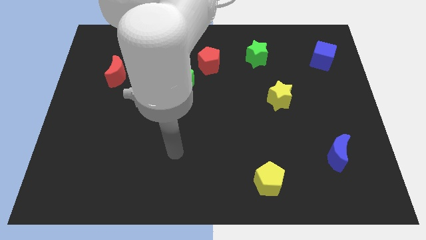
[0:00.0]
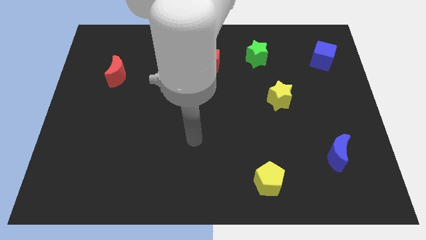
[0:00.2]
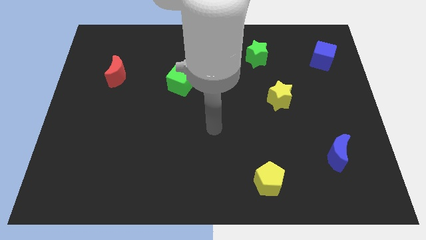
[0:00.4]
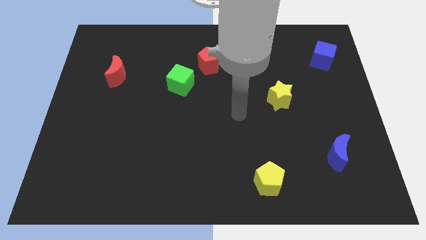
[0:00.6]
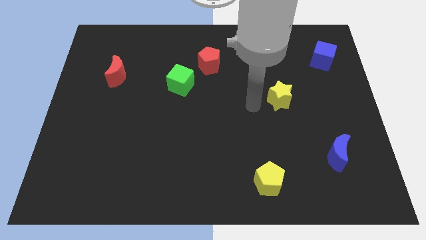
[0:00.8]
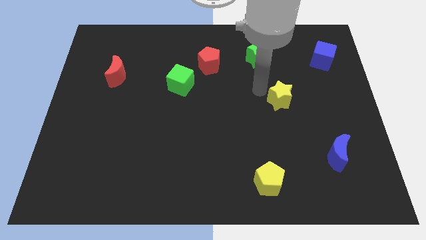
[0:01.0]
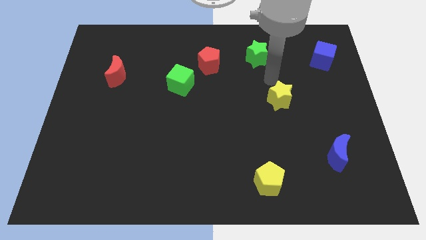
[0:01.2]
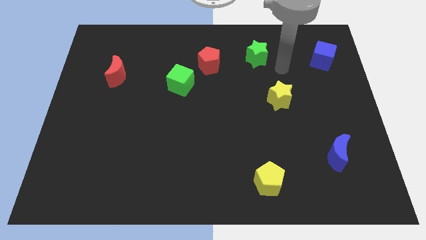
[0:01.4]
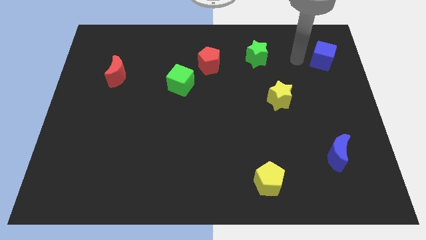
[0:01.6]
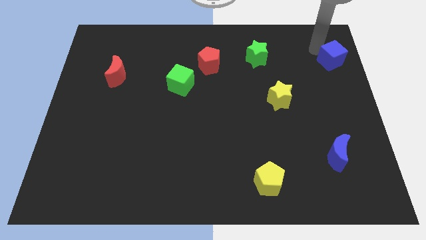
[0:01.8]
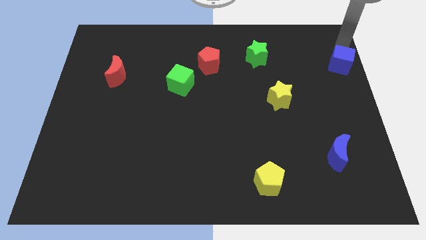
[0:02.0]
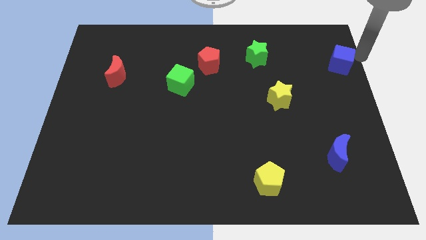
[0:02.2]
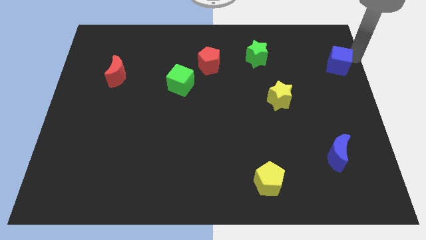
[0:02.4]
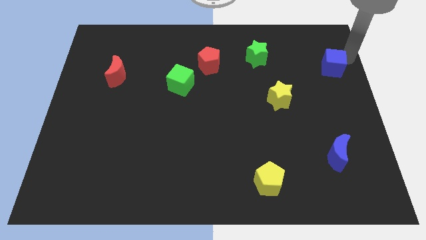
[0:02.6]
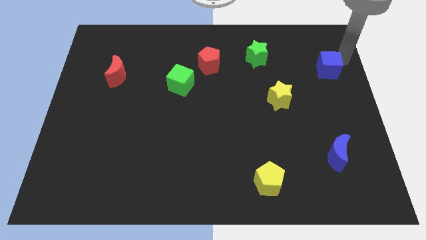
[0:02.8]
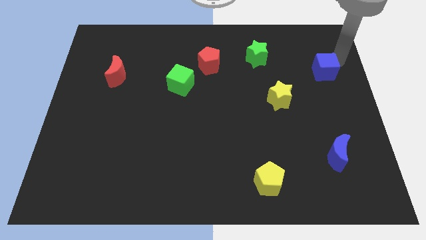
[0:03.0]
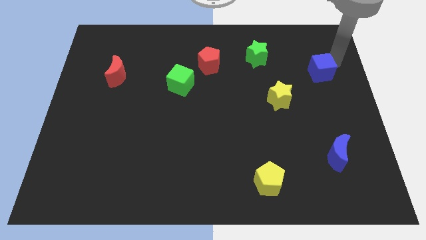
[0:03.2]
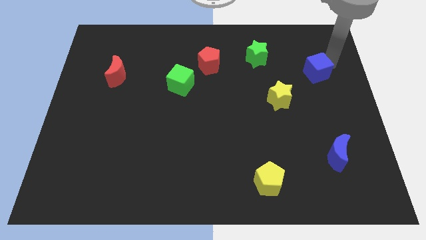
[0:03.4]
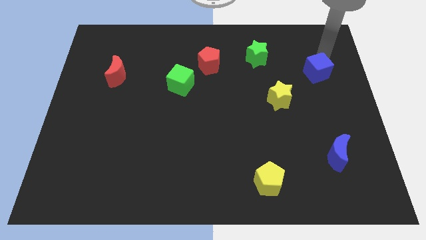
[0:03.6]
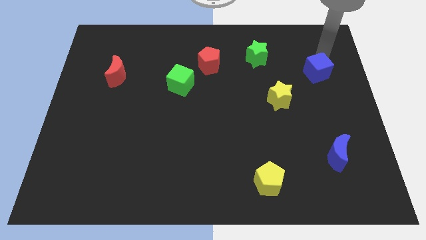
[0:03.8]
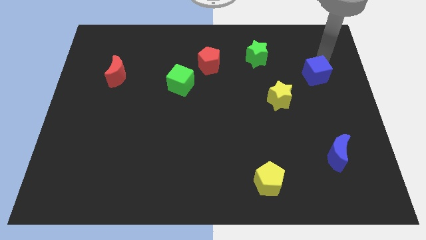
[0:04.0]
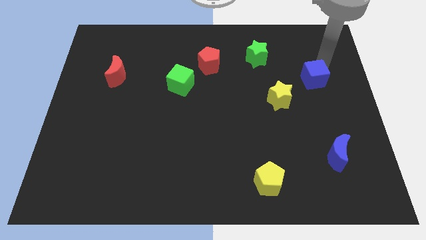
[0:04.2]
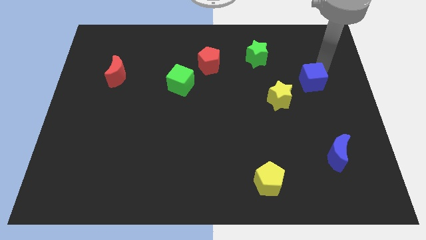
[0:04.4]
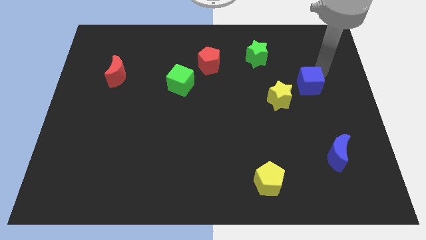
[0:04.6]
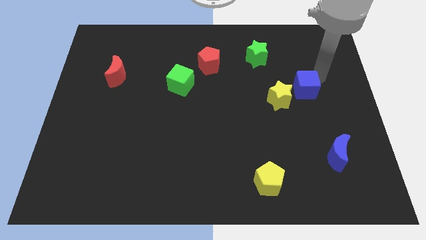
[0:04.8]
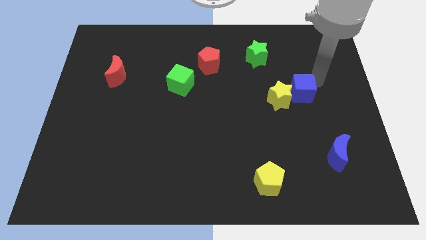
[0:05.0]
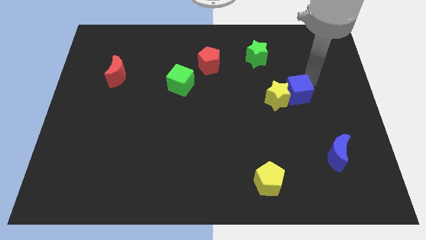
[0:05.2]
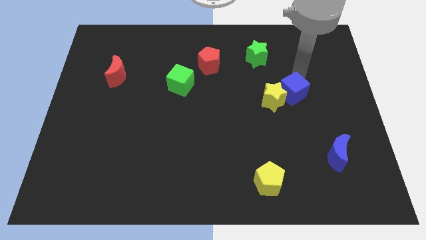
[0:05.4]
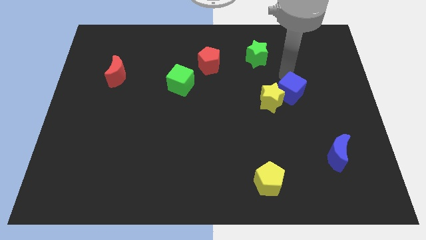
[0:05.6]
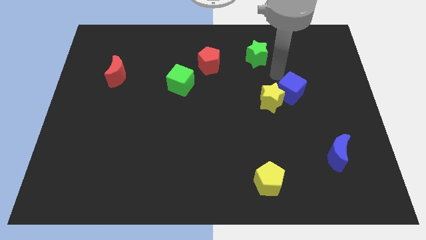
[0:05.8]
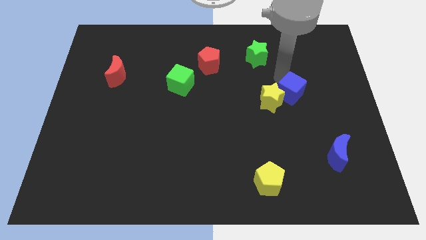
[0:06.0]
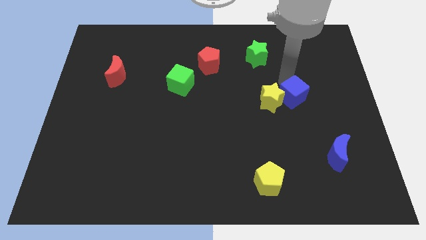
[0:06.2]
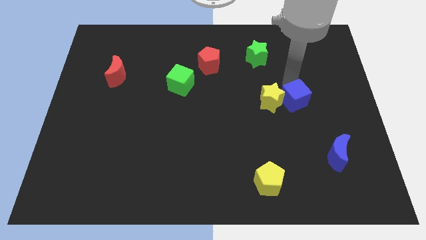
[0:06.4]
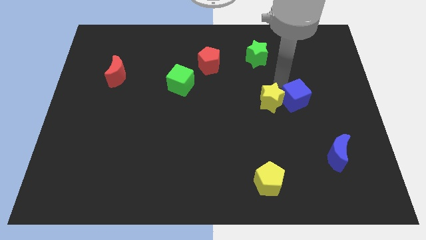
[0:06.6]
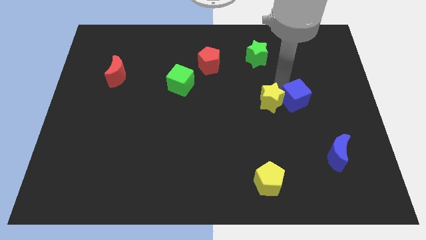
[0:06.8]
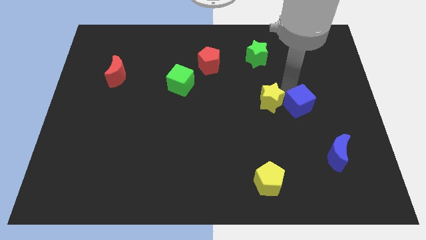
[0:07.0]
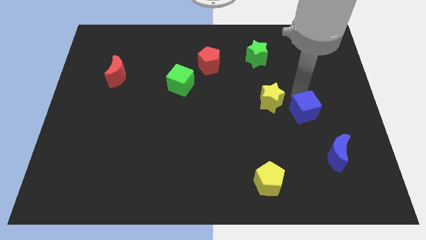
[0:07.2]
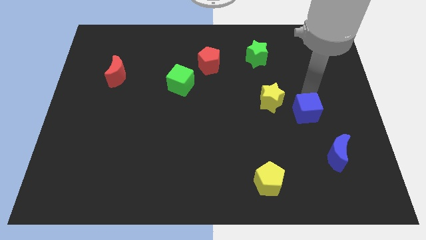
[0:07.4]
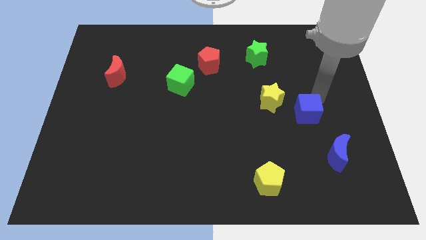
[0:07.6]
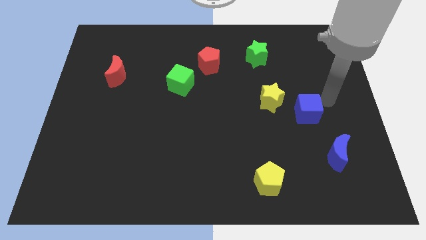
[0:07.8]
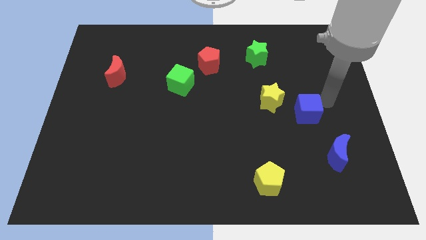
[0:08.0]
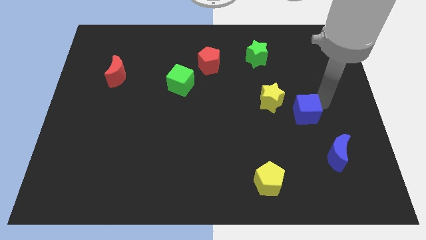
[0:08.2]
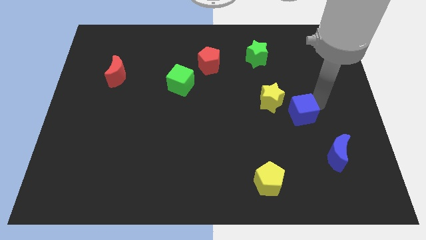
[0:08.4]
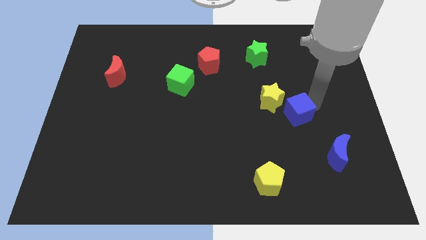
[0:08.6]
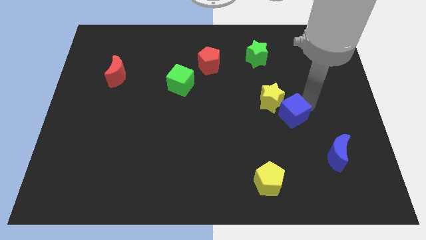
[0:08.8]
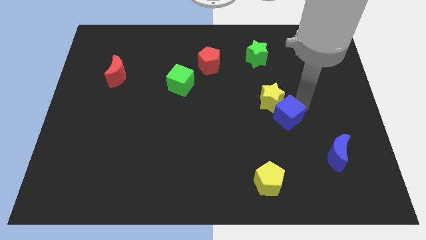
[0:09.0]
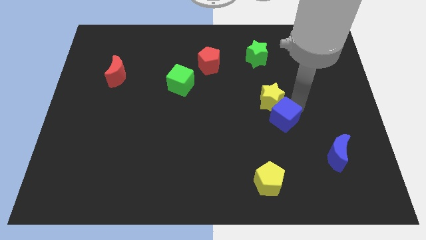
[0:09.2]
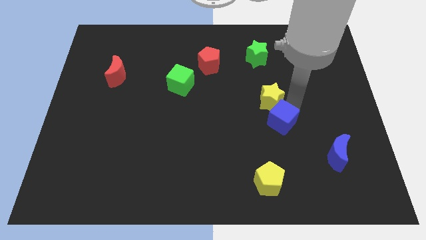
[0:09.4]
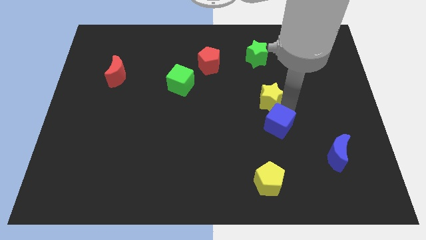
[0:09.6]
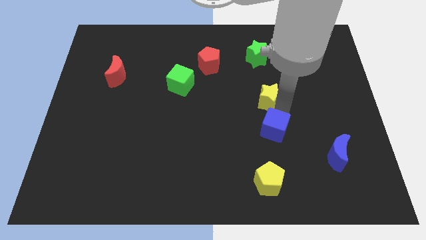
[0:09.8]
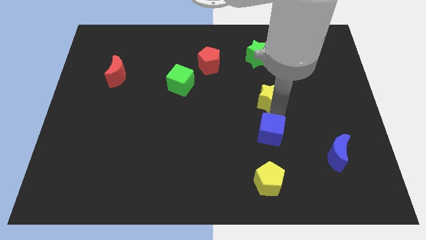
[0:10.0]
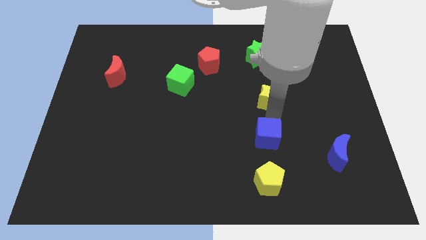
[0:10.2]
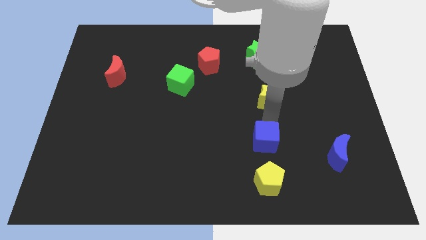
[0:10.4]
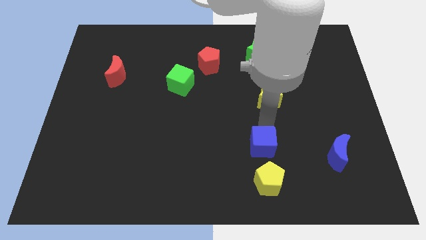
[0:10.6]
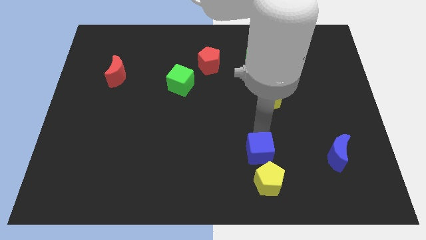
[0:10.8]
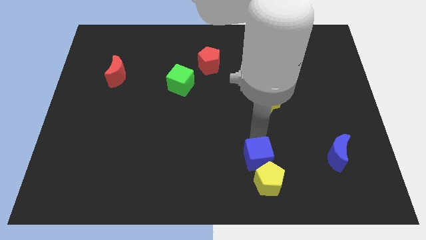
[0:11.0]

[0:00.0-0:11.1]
move the blue cube close to the yellow pentagon

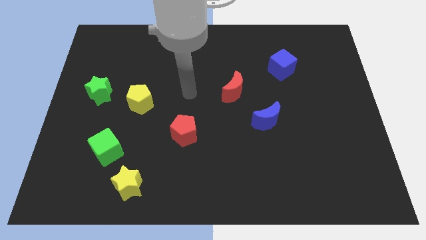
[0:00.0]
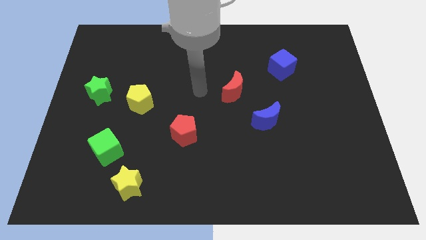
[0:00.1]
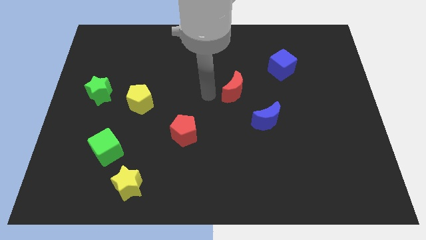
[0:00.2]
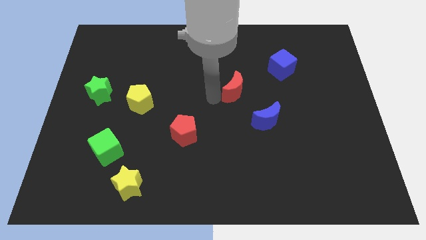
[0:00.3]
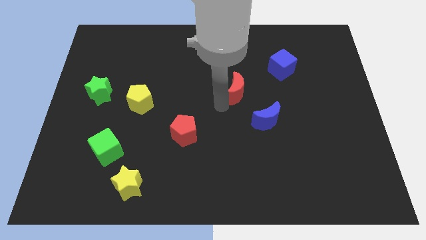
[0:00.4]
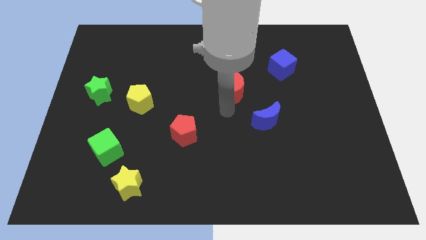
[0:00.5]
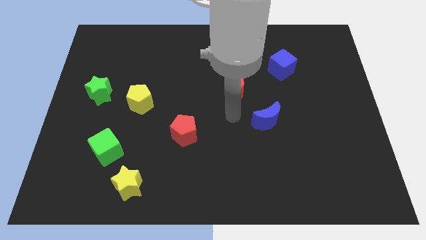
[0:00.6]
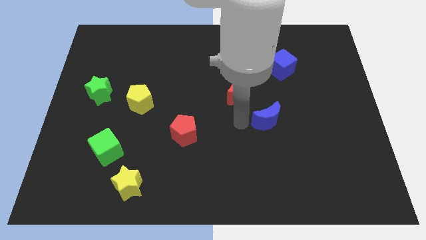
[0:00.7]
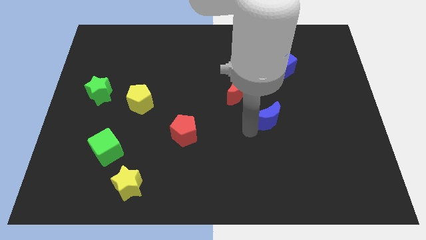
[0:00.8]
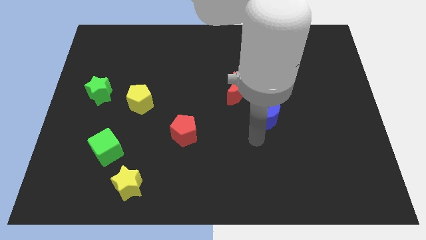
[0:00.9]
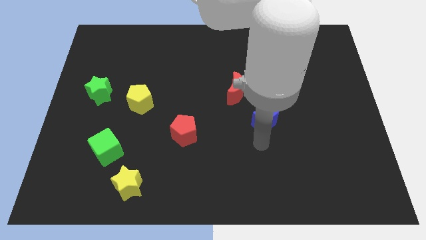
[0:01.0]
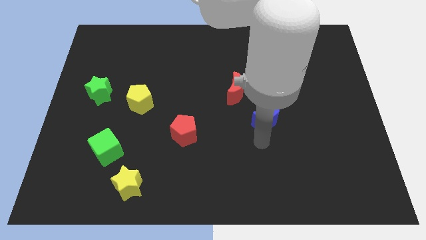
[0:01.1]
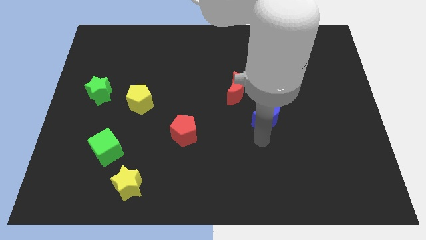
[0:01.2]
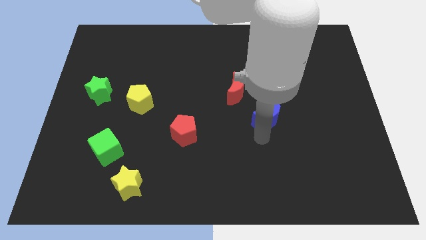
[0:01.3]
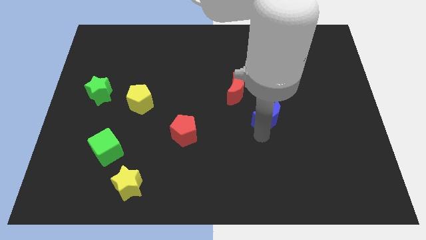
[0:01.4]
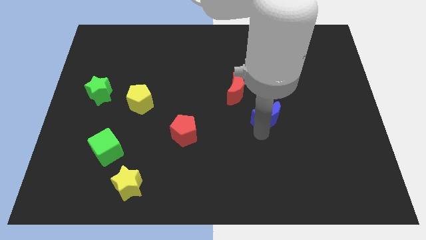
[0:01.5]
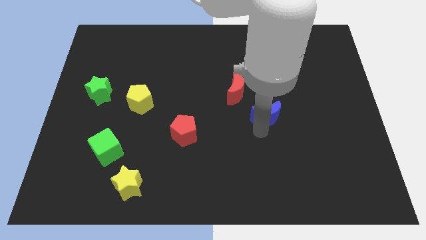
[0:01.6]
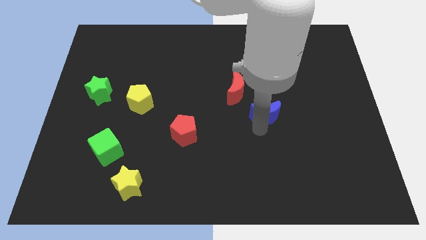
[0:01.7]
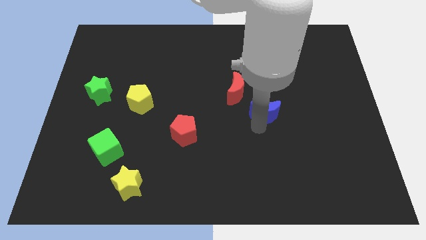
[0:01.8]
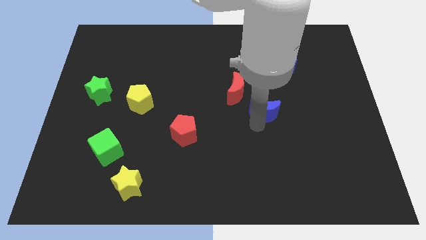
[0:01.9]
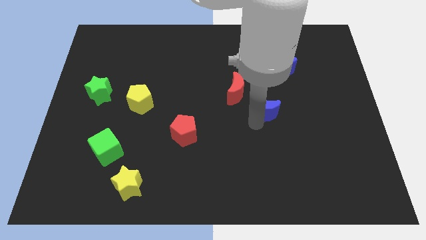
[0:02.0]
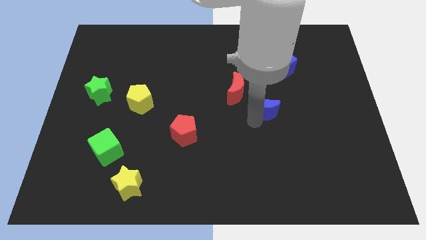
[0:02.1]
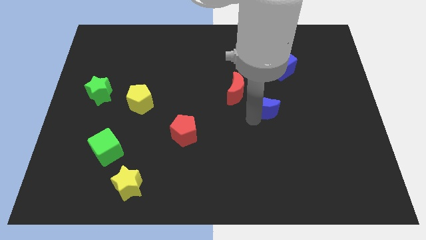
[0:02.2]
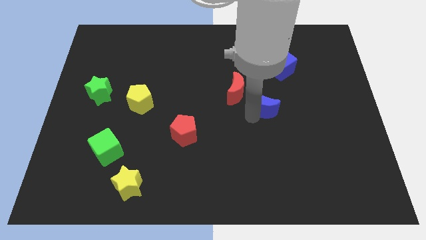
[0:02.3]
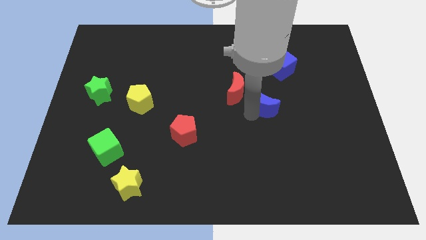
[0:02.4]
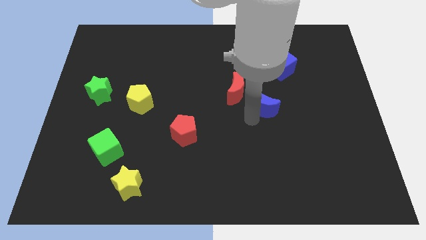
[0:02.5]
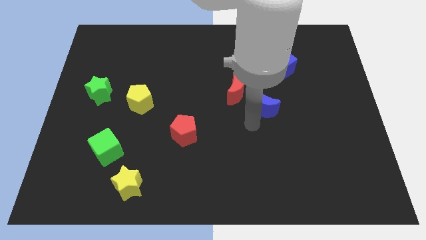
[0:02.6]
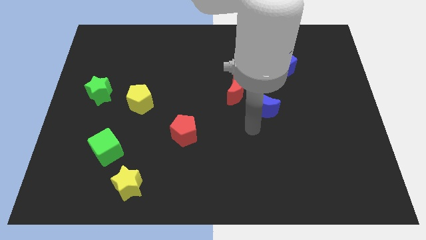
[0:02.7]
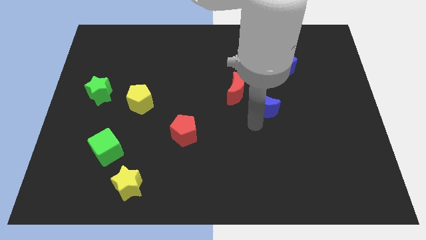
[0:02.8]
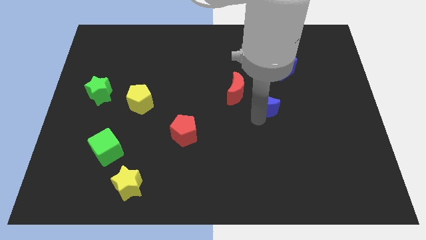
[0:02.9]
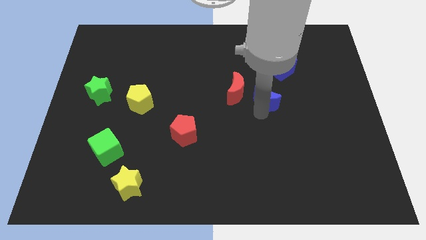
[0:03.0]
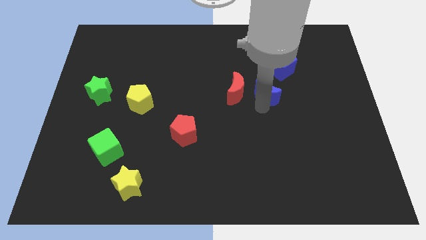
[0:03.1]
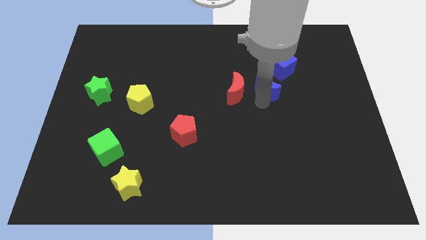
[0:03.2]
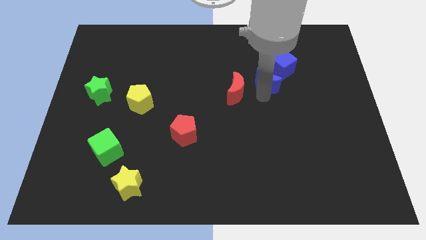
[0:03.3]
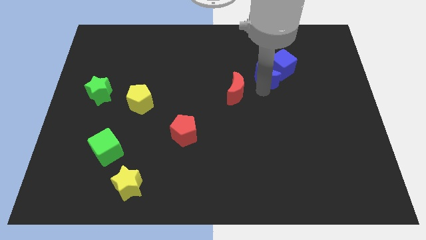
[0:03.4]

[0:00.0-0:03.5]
put the blue moon close to the blue cube
